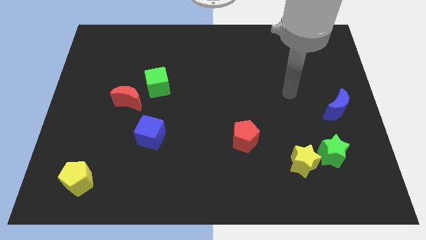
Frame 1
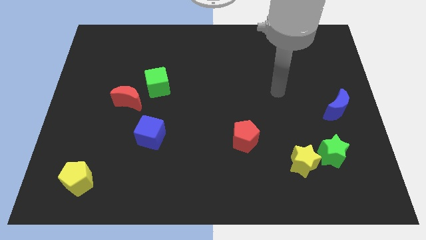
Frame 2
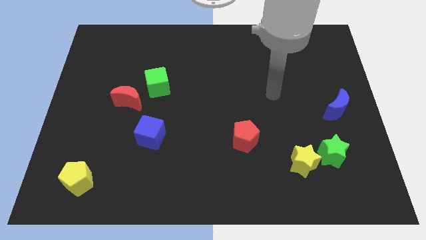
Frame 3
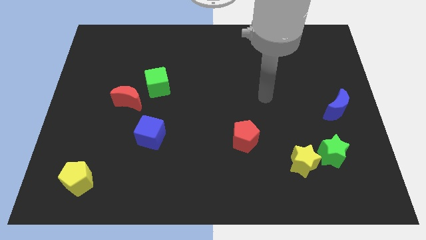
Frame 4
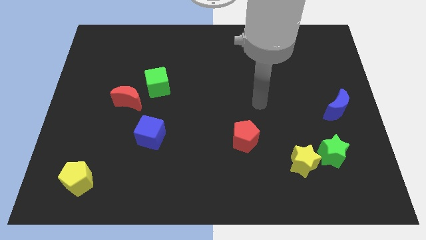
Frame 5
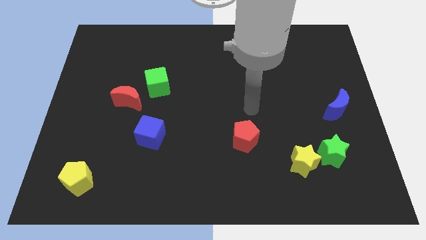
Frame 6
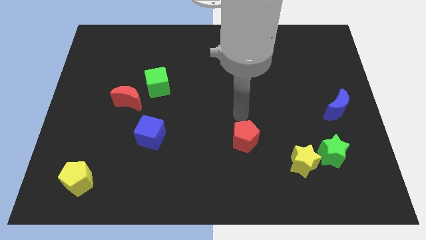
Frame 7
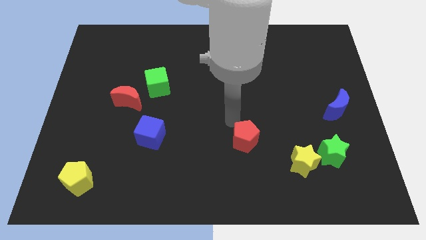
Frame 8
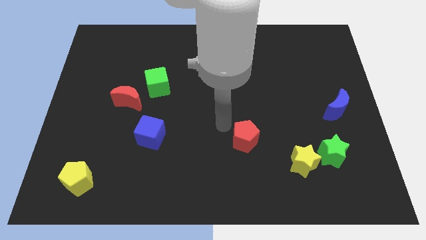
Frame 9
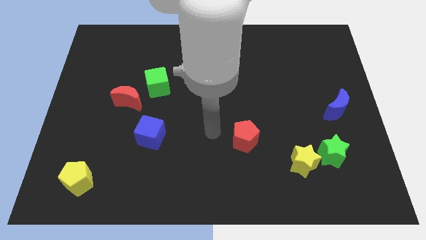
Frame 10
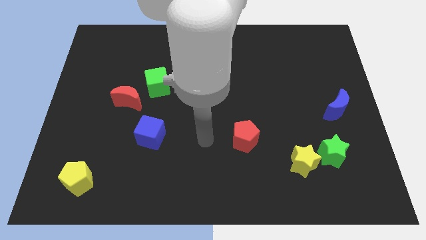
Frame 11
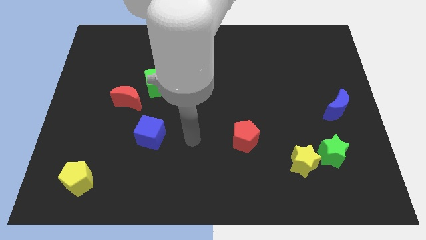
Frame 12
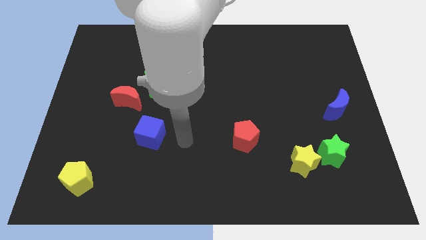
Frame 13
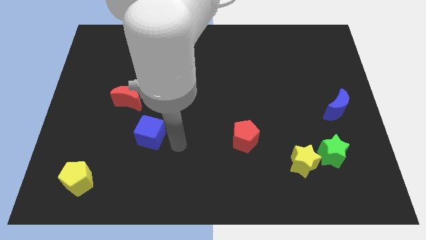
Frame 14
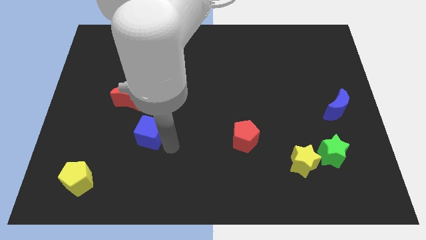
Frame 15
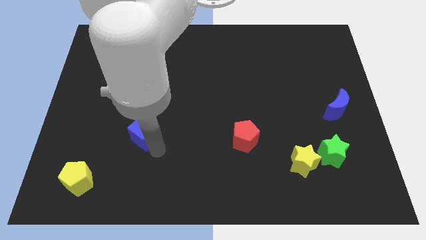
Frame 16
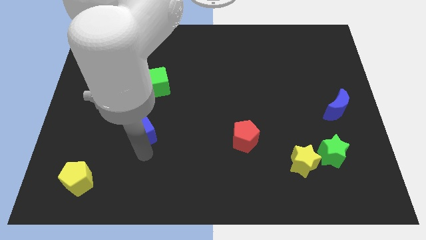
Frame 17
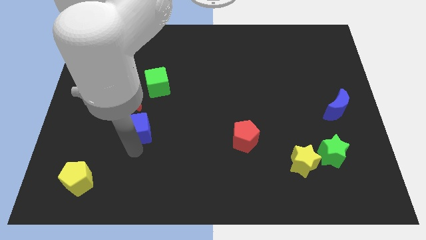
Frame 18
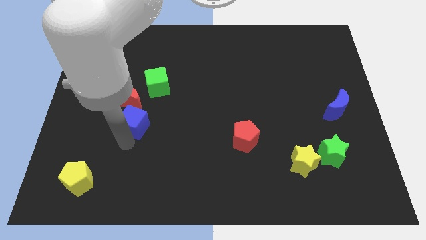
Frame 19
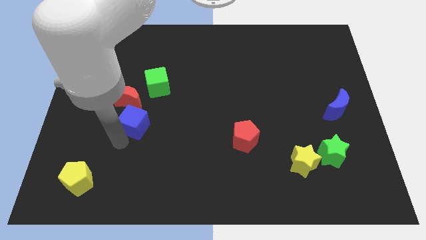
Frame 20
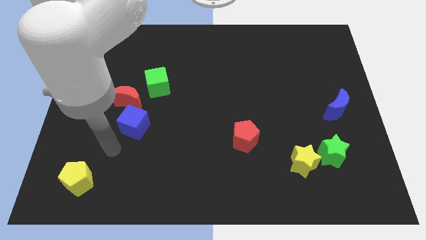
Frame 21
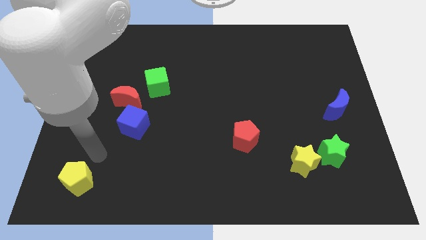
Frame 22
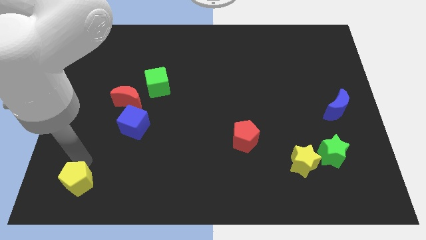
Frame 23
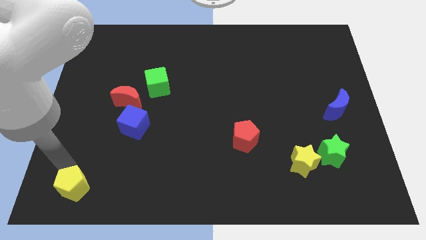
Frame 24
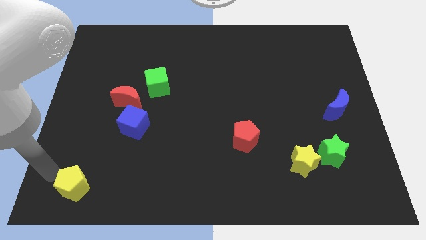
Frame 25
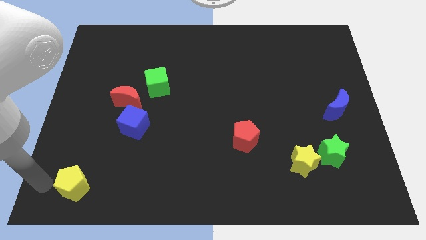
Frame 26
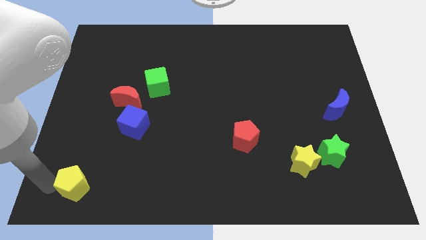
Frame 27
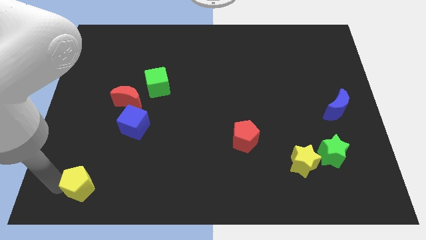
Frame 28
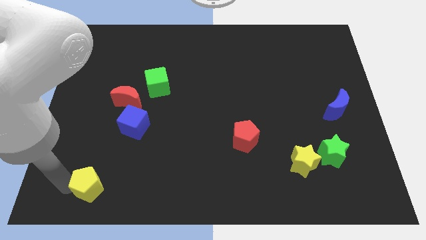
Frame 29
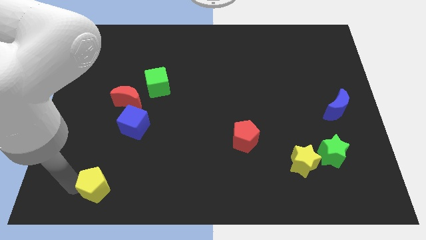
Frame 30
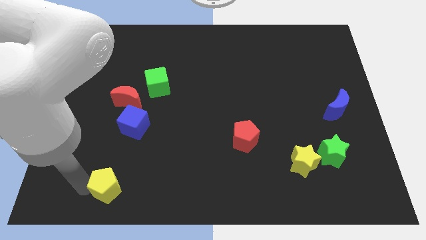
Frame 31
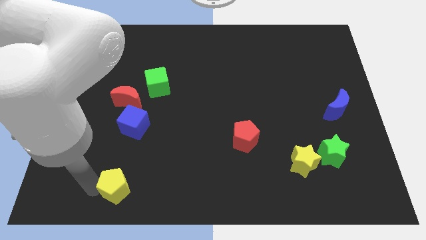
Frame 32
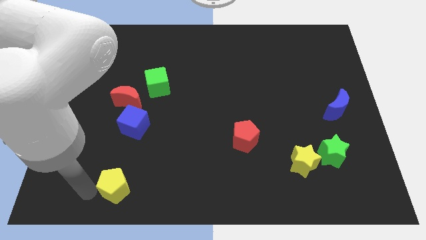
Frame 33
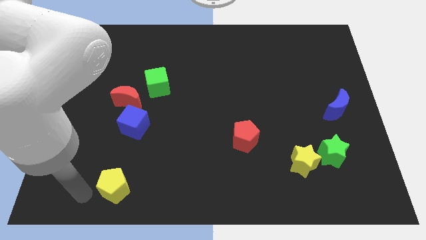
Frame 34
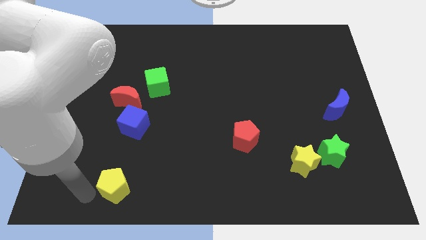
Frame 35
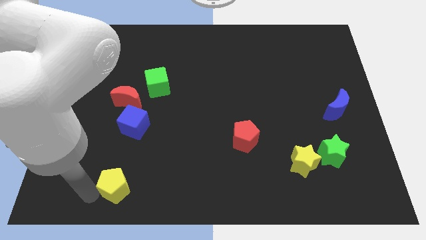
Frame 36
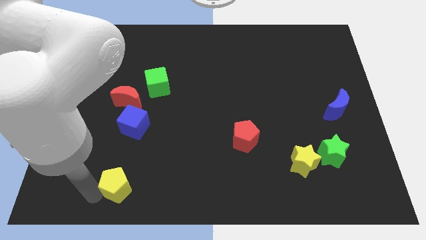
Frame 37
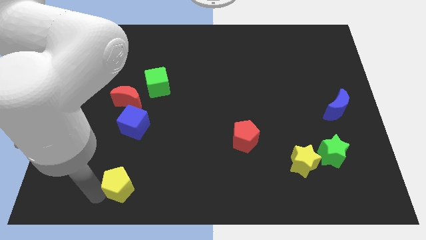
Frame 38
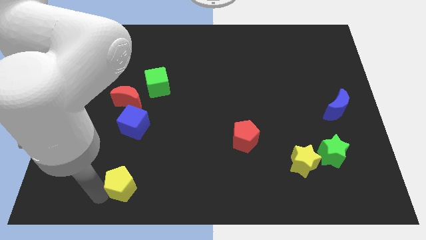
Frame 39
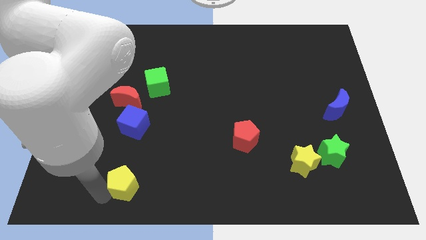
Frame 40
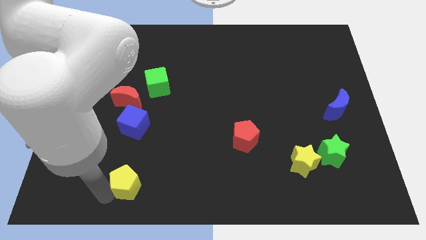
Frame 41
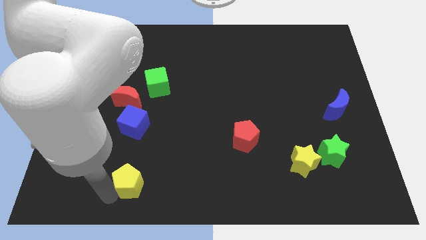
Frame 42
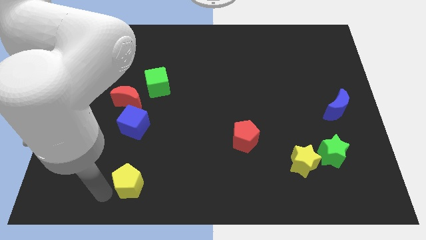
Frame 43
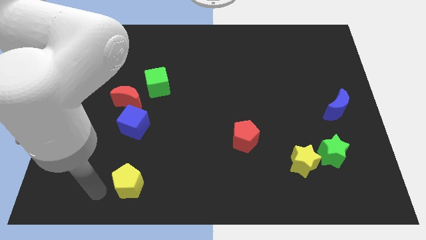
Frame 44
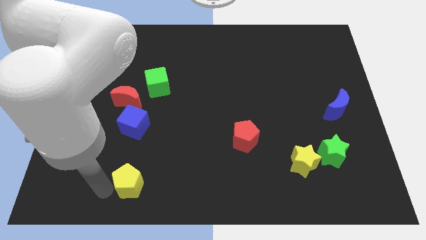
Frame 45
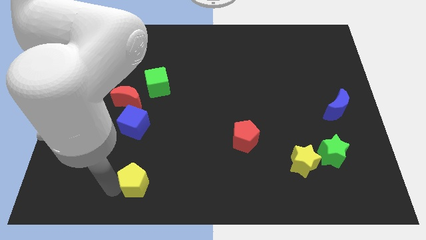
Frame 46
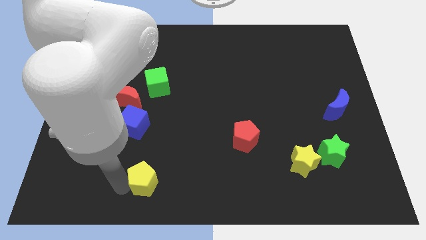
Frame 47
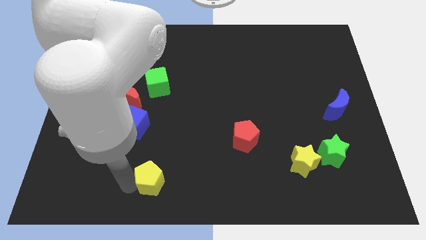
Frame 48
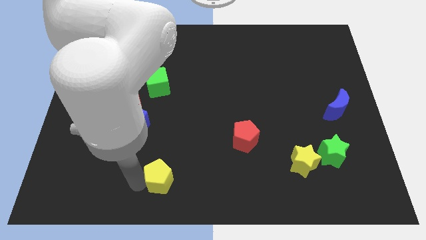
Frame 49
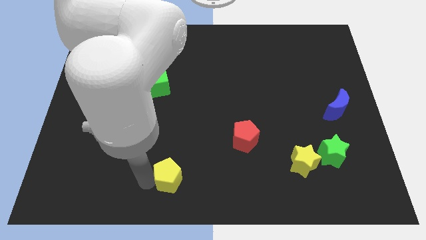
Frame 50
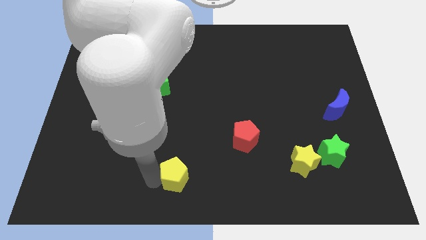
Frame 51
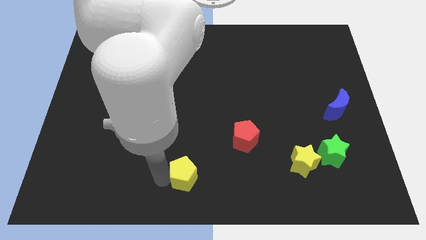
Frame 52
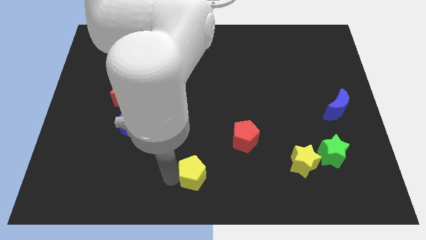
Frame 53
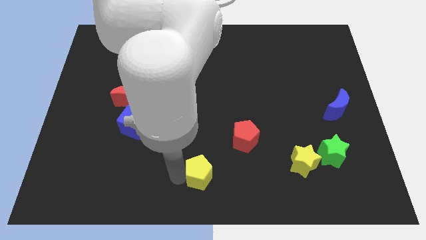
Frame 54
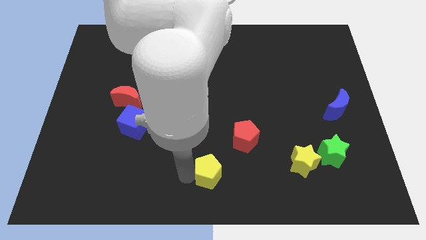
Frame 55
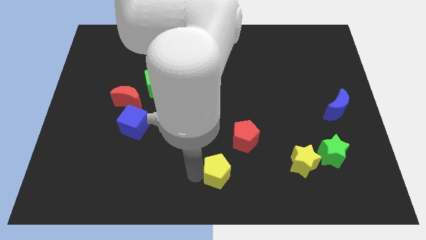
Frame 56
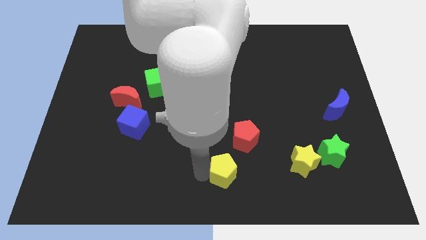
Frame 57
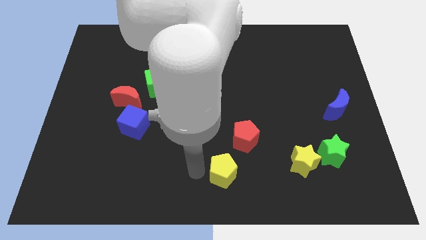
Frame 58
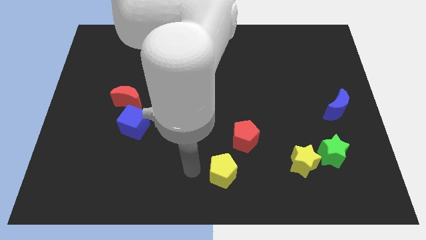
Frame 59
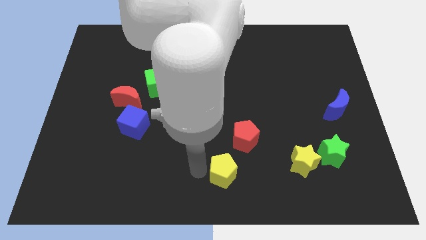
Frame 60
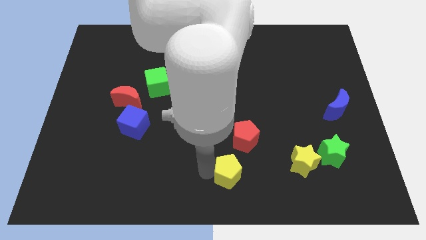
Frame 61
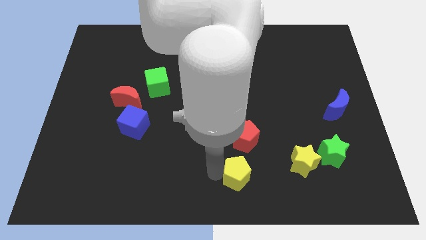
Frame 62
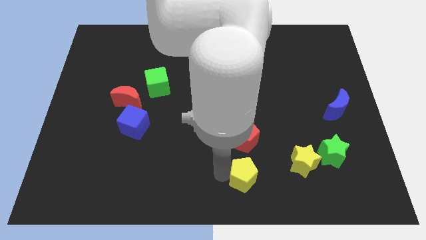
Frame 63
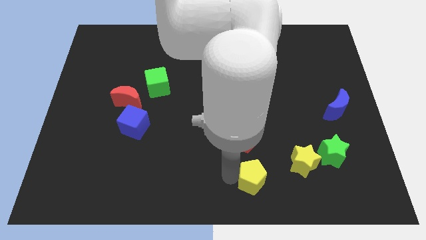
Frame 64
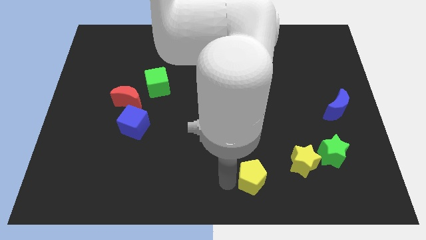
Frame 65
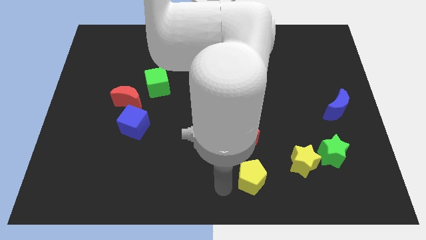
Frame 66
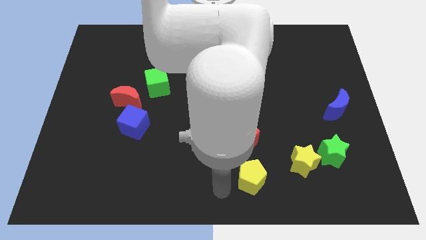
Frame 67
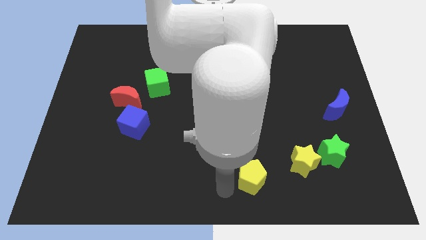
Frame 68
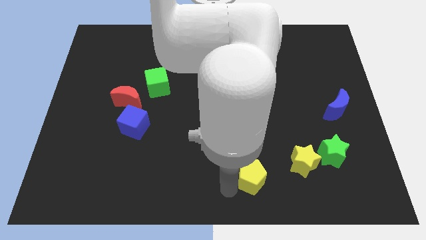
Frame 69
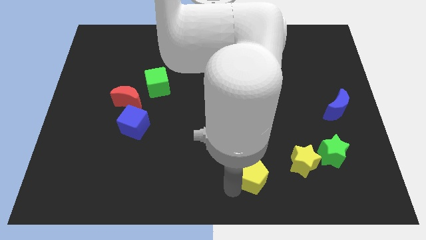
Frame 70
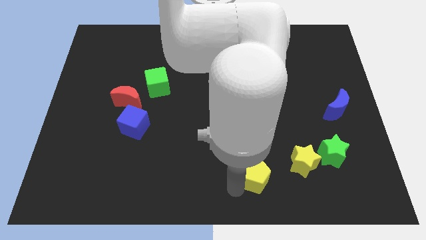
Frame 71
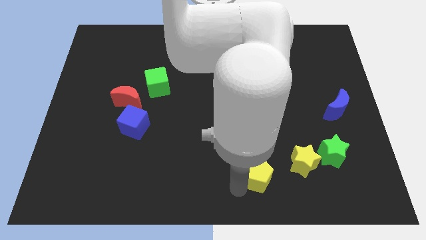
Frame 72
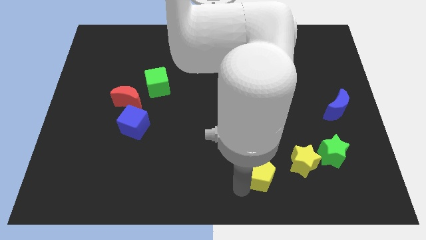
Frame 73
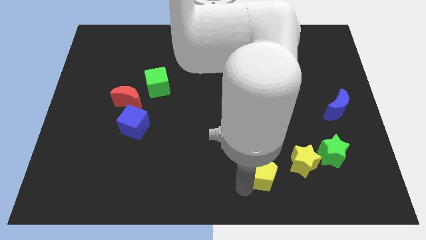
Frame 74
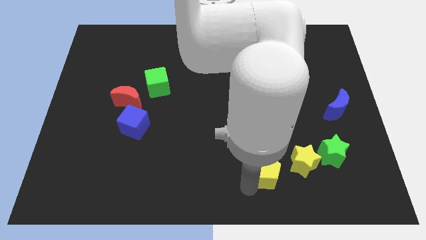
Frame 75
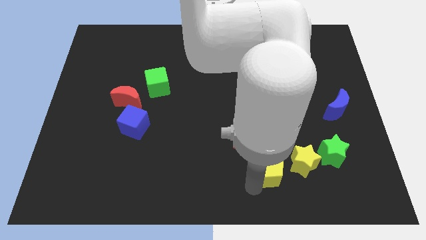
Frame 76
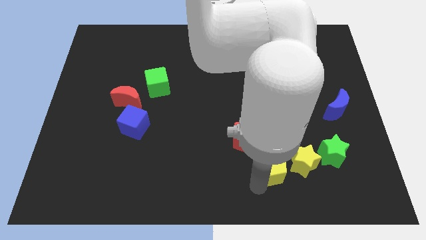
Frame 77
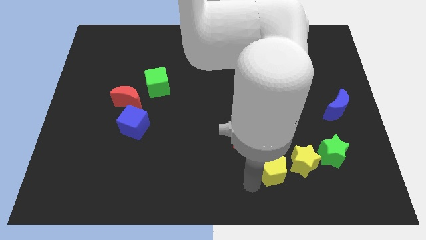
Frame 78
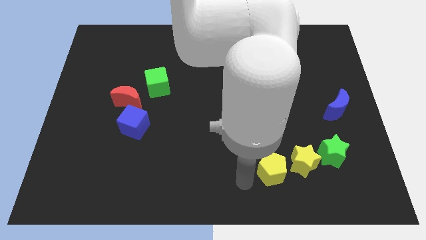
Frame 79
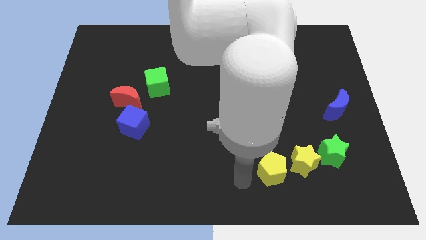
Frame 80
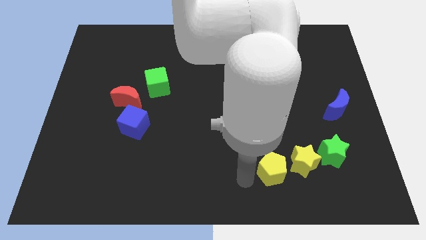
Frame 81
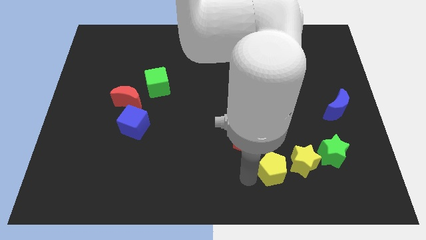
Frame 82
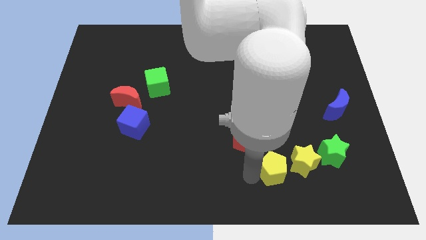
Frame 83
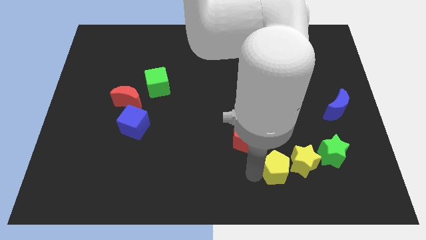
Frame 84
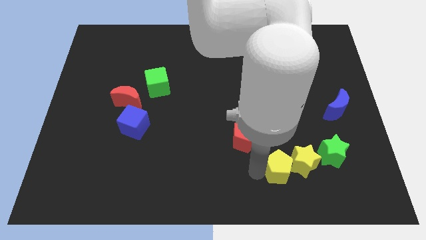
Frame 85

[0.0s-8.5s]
slide the yellow pentagon next to the yellow star
